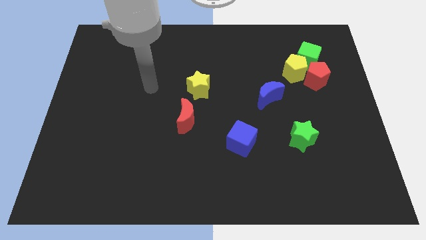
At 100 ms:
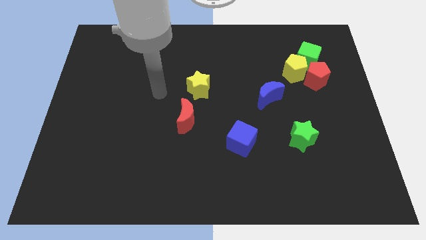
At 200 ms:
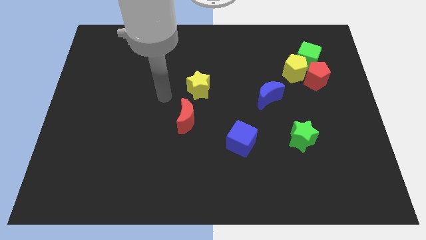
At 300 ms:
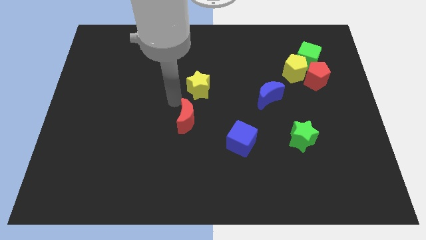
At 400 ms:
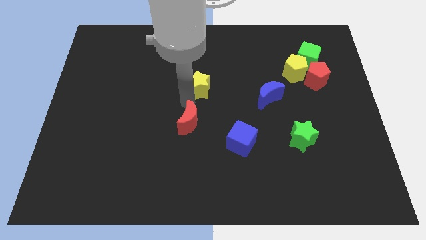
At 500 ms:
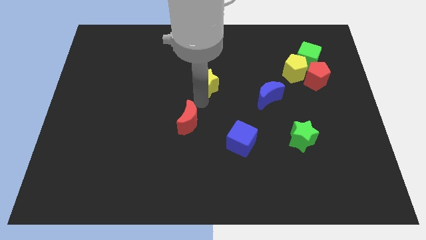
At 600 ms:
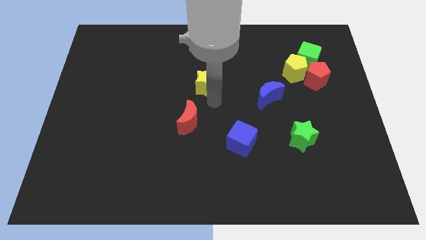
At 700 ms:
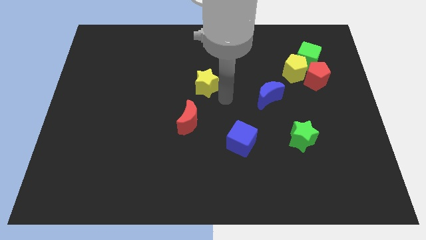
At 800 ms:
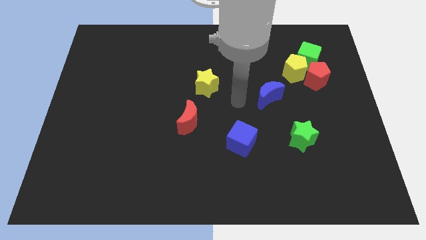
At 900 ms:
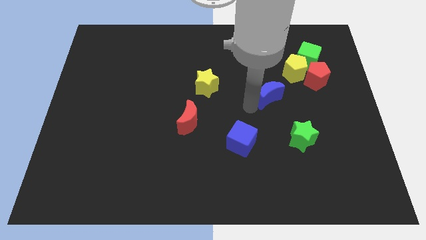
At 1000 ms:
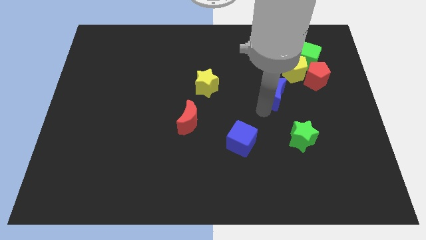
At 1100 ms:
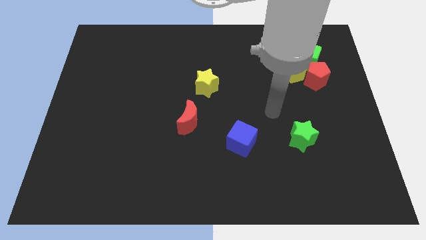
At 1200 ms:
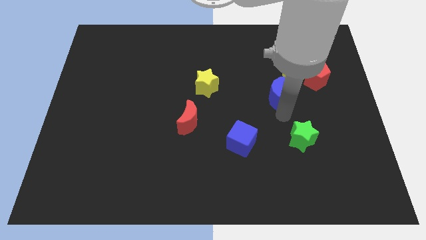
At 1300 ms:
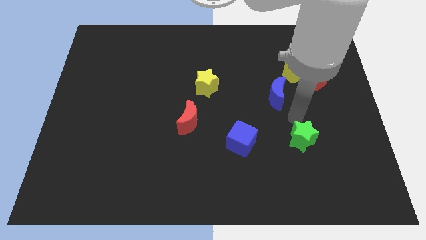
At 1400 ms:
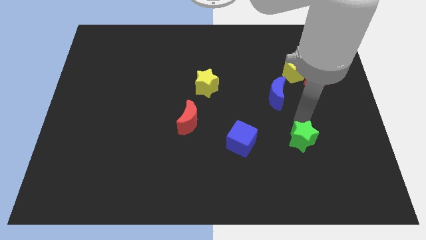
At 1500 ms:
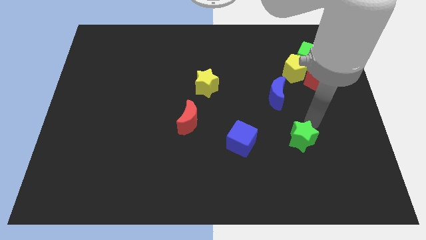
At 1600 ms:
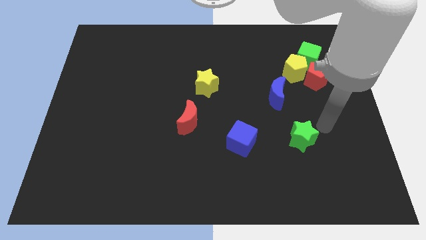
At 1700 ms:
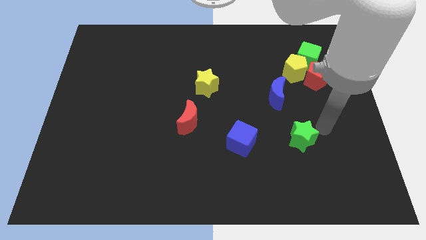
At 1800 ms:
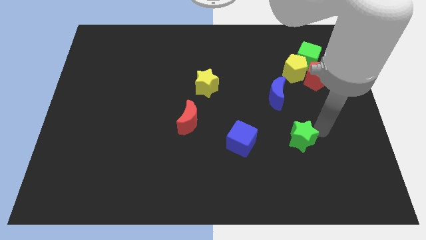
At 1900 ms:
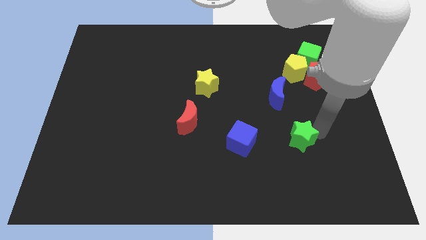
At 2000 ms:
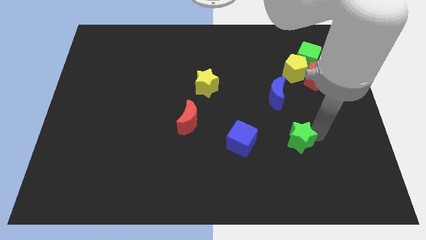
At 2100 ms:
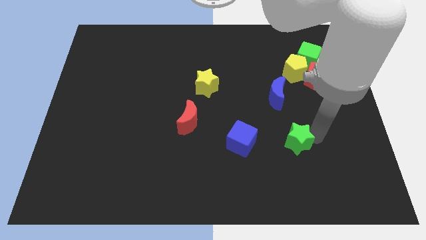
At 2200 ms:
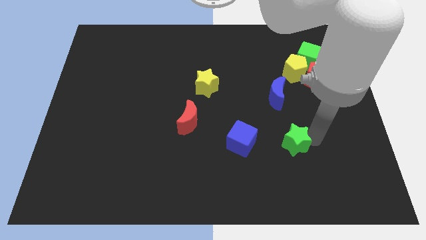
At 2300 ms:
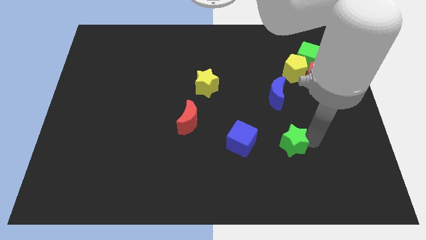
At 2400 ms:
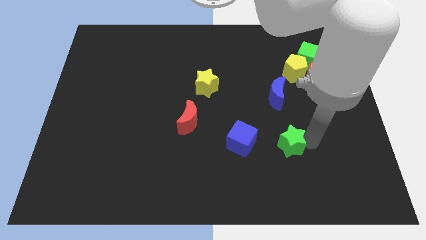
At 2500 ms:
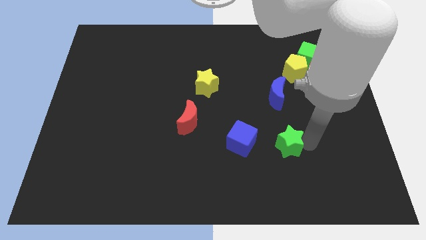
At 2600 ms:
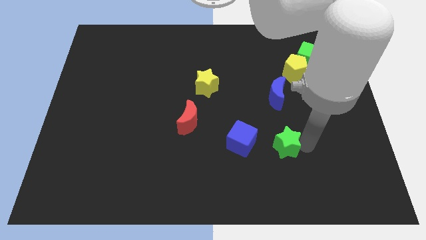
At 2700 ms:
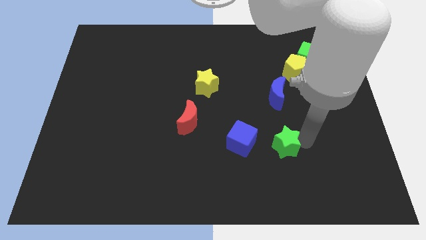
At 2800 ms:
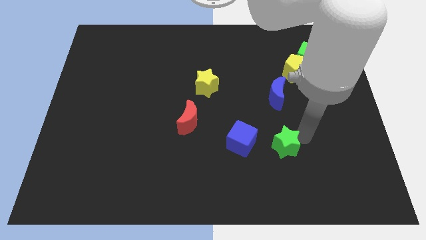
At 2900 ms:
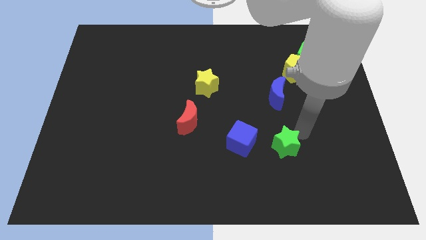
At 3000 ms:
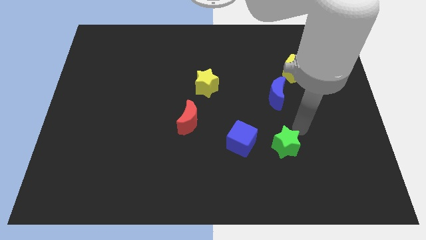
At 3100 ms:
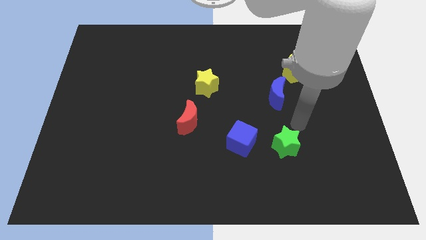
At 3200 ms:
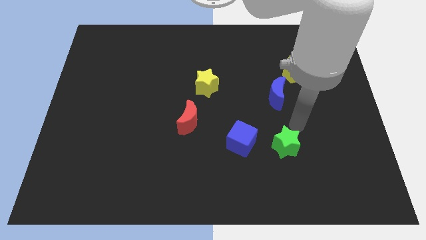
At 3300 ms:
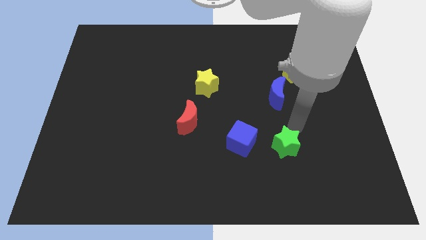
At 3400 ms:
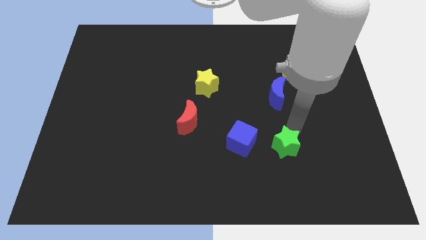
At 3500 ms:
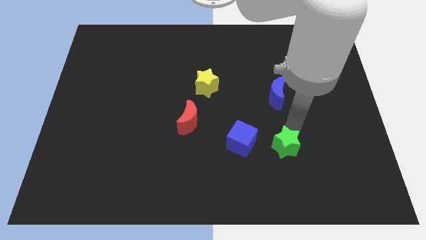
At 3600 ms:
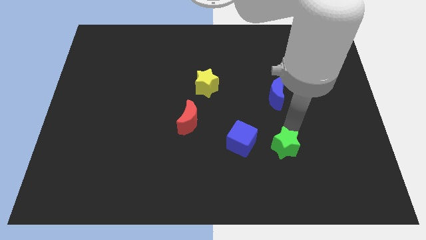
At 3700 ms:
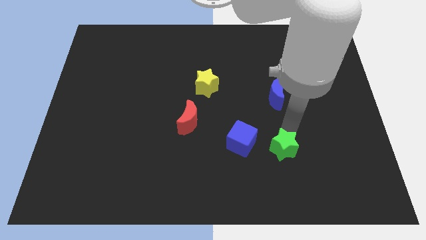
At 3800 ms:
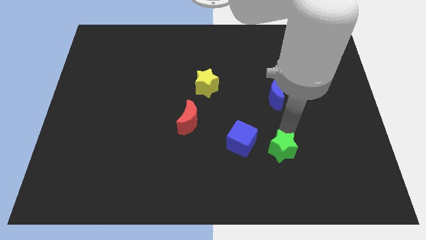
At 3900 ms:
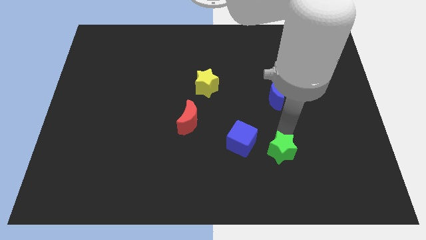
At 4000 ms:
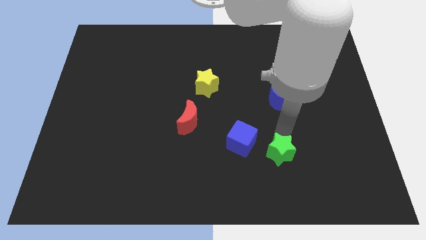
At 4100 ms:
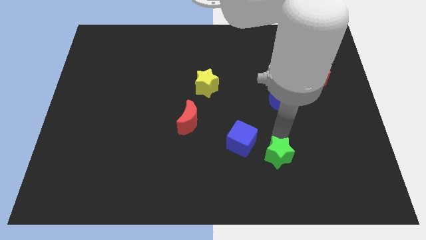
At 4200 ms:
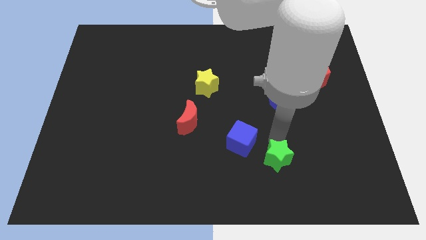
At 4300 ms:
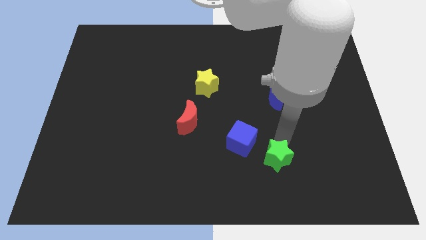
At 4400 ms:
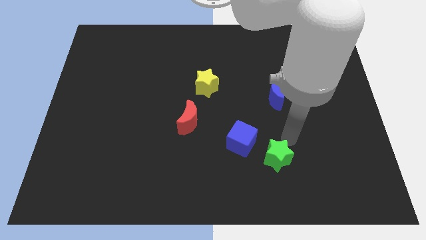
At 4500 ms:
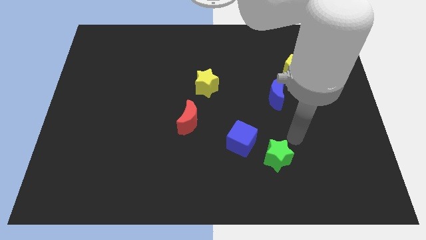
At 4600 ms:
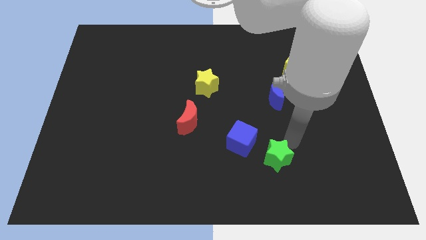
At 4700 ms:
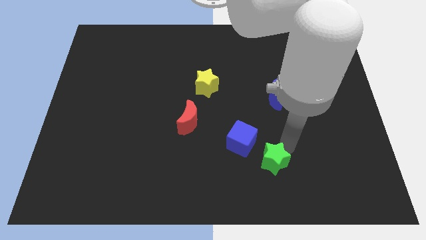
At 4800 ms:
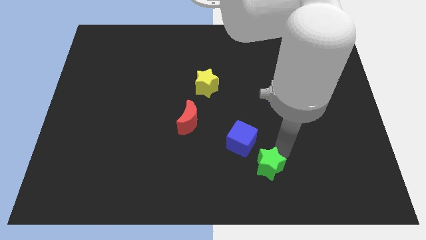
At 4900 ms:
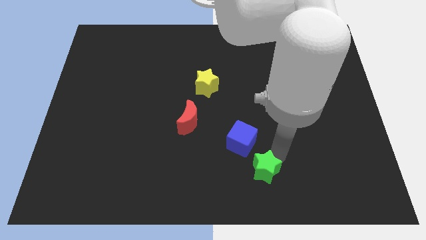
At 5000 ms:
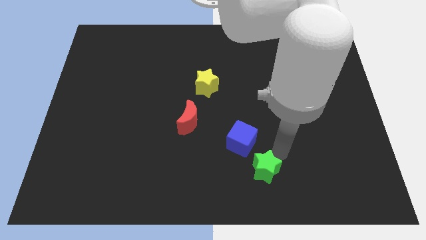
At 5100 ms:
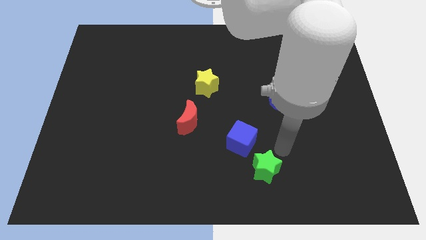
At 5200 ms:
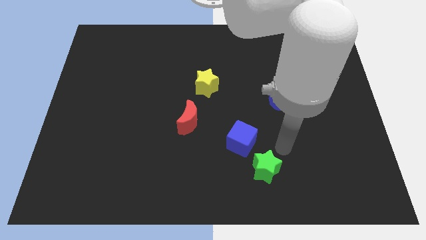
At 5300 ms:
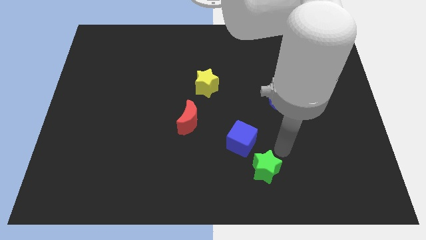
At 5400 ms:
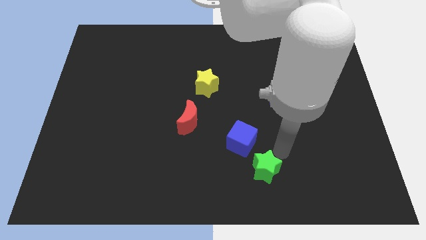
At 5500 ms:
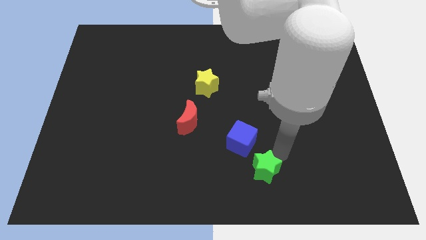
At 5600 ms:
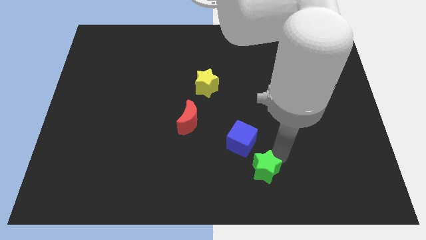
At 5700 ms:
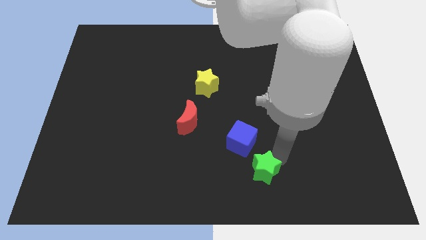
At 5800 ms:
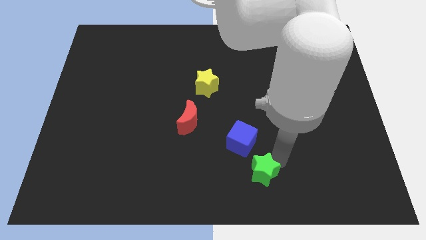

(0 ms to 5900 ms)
slide the green star to the bottom
